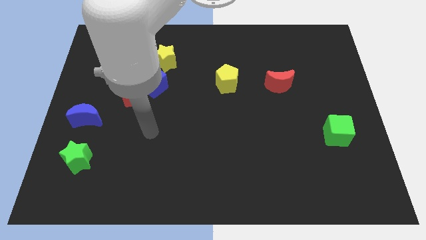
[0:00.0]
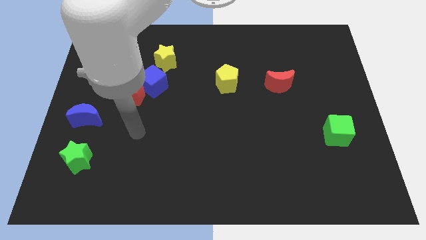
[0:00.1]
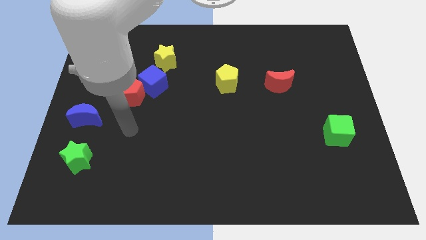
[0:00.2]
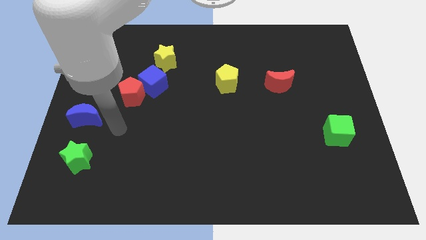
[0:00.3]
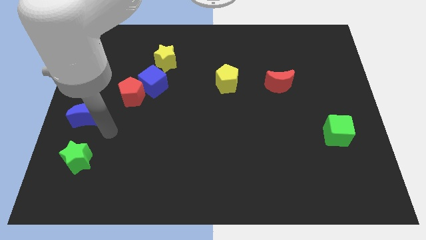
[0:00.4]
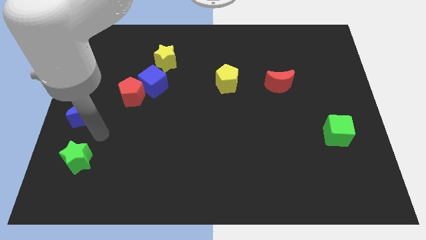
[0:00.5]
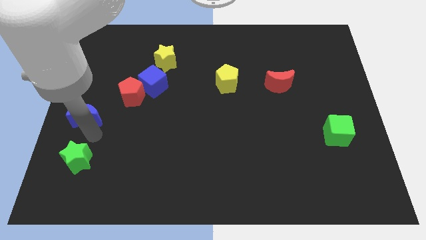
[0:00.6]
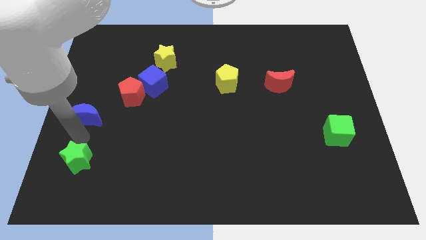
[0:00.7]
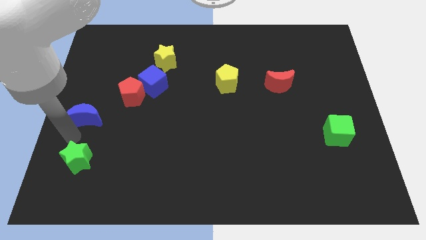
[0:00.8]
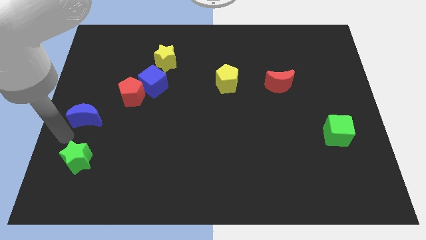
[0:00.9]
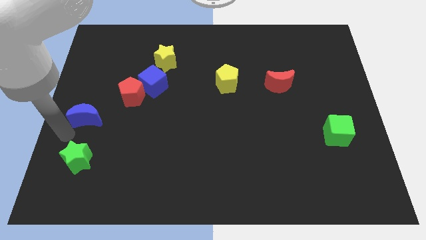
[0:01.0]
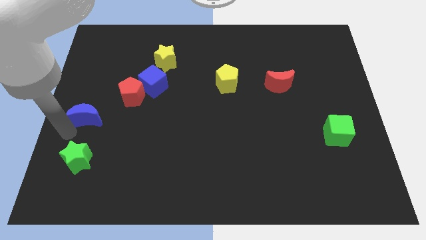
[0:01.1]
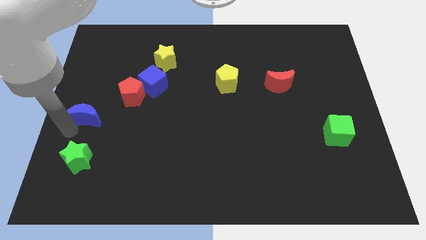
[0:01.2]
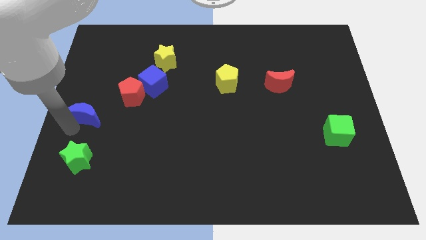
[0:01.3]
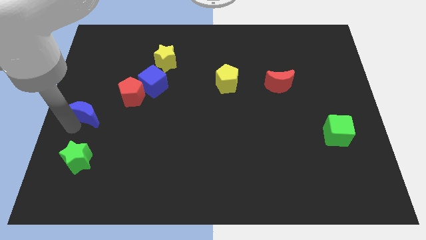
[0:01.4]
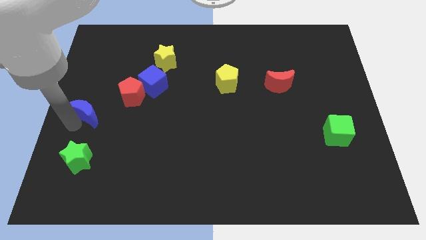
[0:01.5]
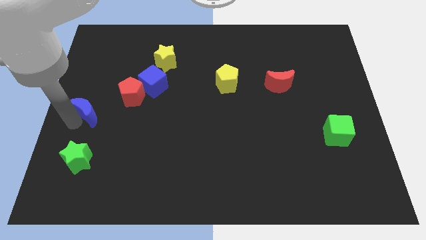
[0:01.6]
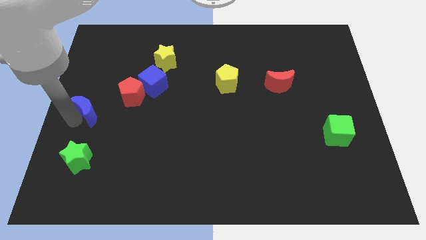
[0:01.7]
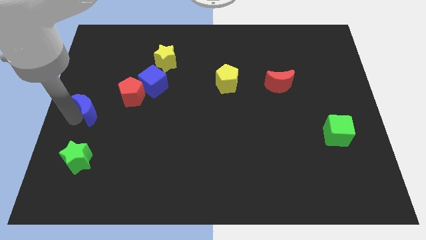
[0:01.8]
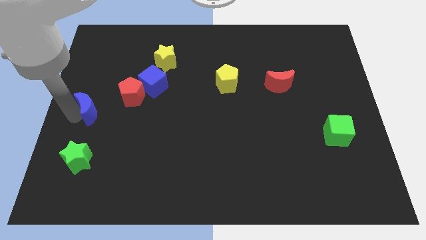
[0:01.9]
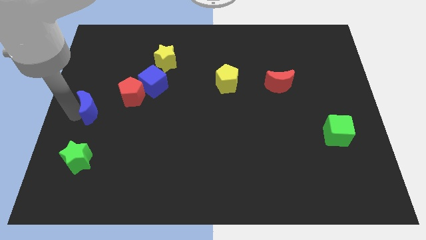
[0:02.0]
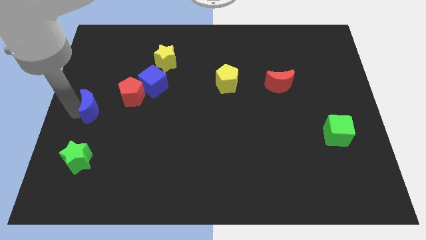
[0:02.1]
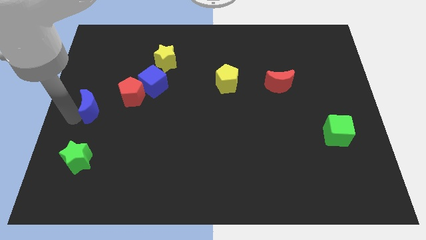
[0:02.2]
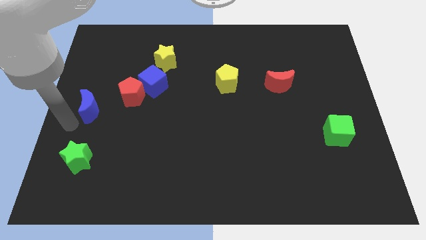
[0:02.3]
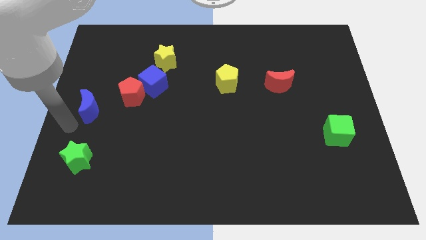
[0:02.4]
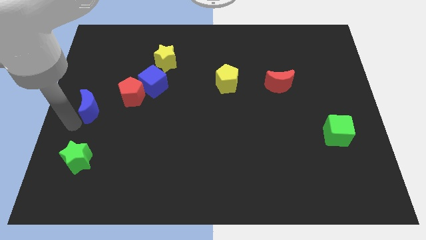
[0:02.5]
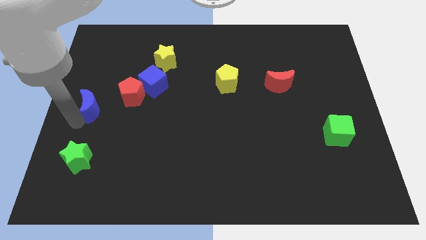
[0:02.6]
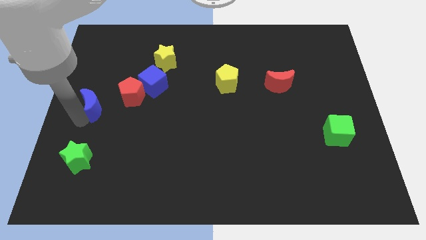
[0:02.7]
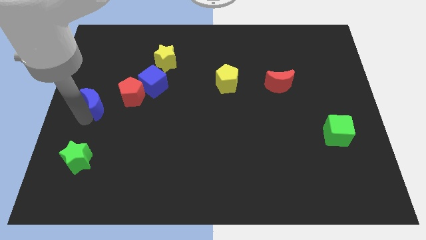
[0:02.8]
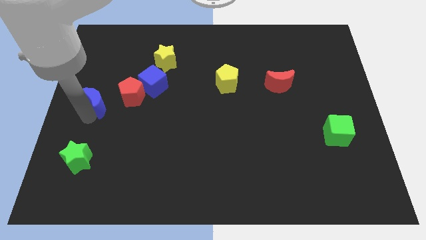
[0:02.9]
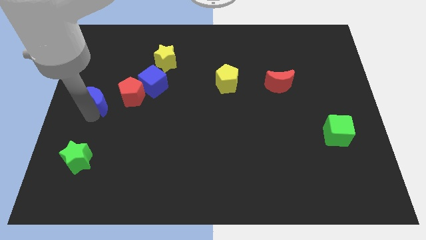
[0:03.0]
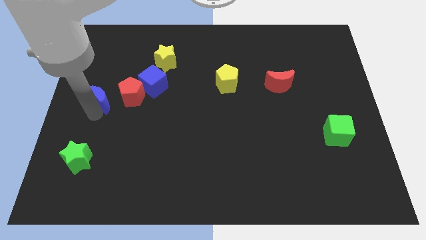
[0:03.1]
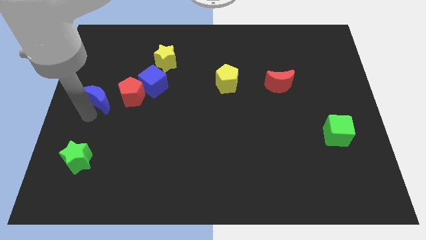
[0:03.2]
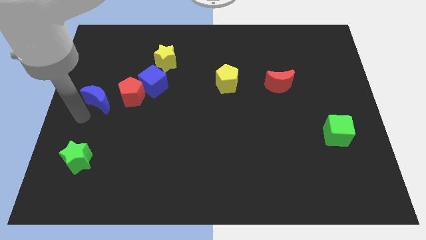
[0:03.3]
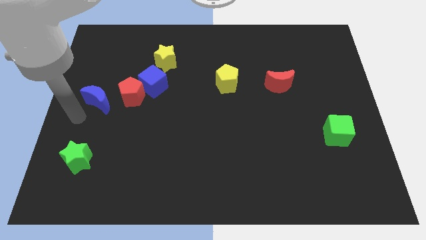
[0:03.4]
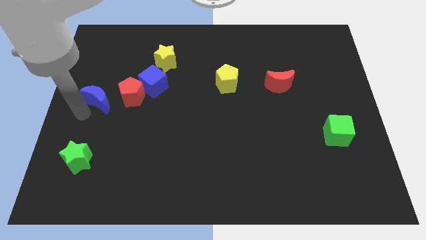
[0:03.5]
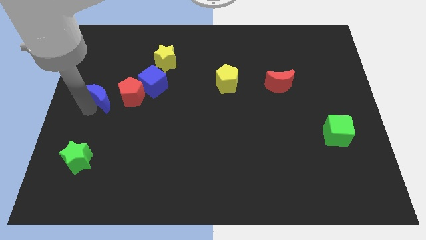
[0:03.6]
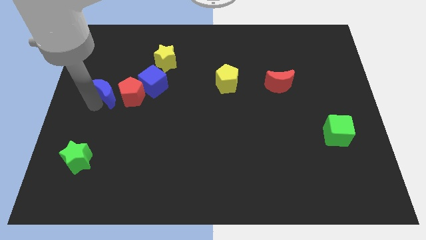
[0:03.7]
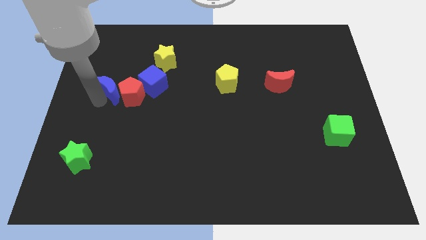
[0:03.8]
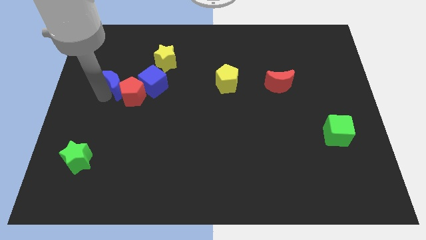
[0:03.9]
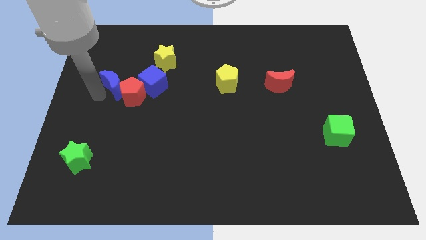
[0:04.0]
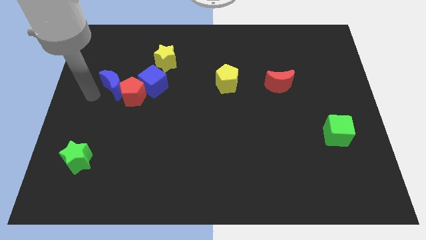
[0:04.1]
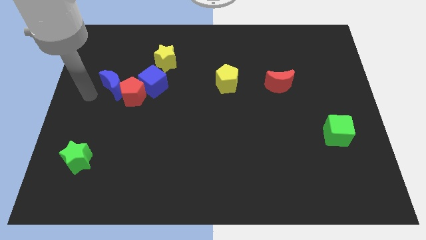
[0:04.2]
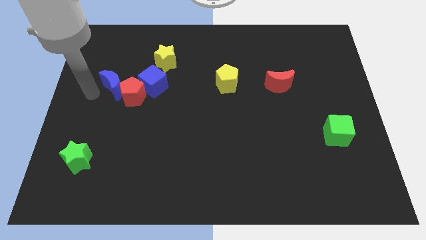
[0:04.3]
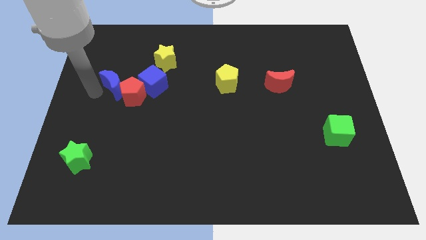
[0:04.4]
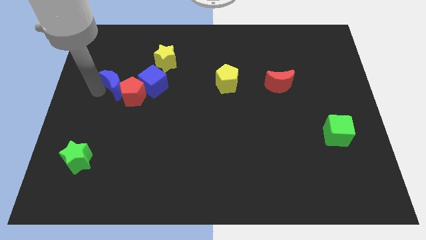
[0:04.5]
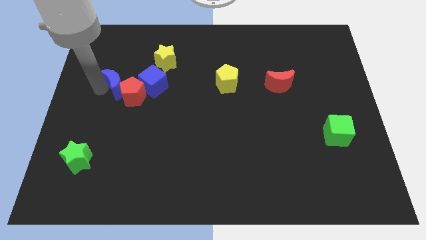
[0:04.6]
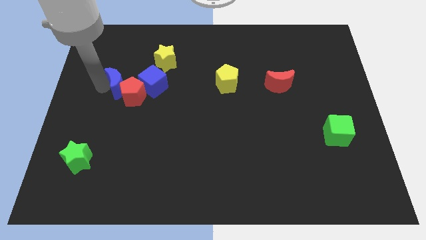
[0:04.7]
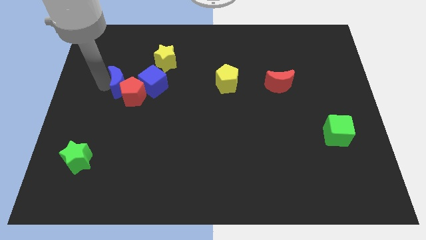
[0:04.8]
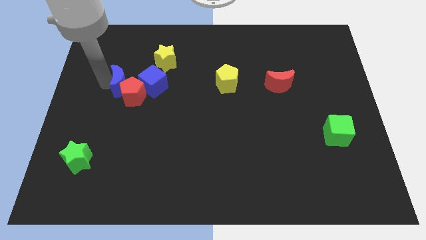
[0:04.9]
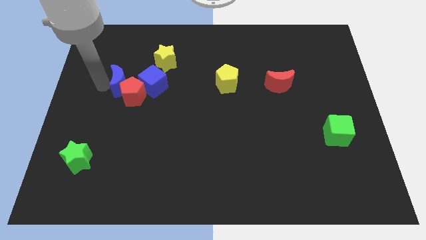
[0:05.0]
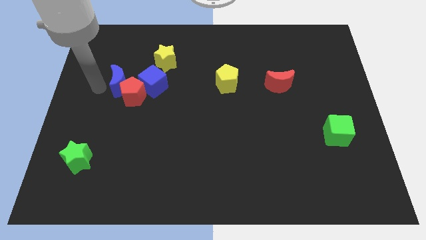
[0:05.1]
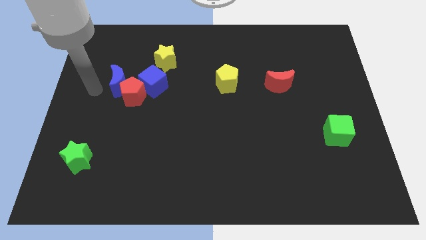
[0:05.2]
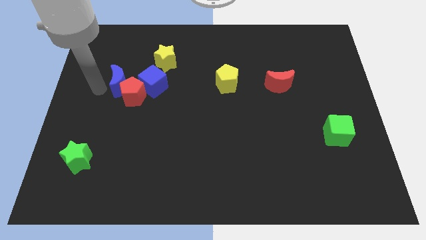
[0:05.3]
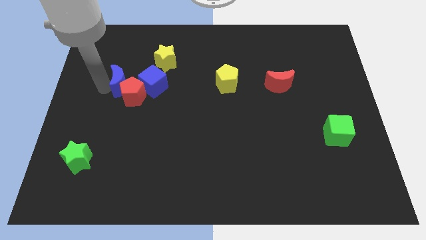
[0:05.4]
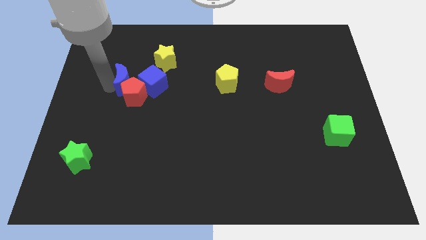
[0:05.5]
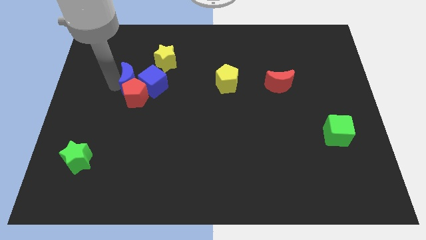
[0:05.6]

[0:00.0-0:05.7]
put the blue moon to the blue cube
